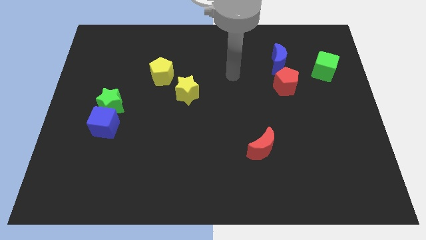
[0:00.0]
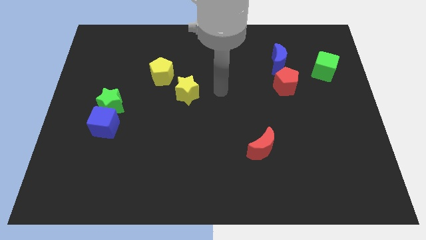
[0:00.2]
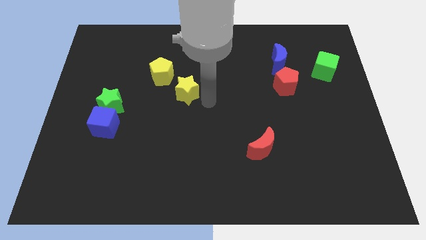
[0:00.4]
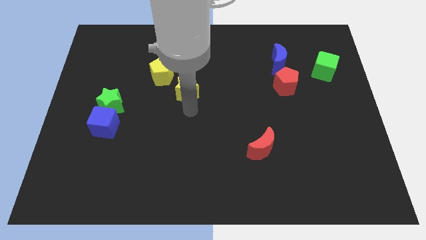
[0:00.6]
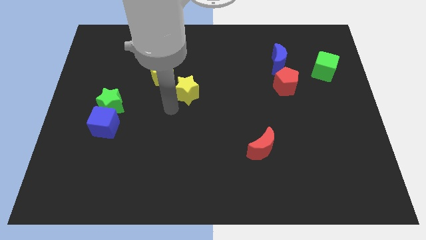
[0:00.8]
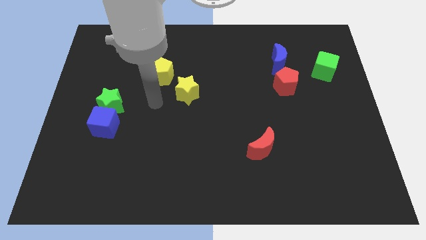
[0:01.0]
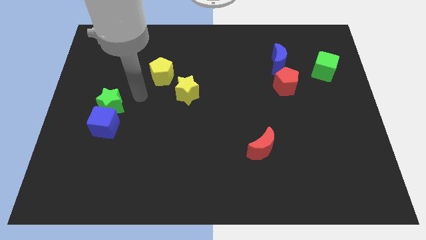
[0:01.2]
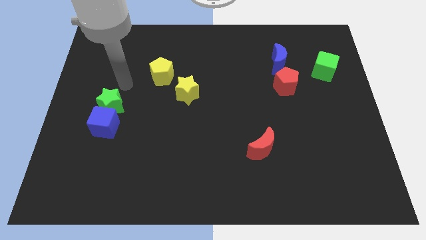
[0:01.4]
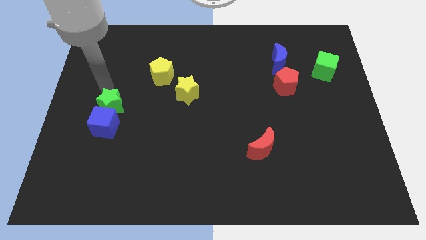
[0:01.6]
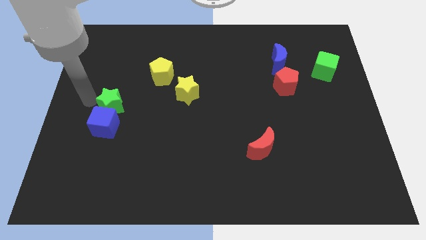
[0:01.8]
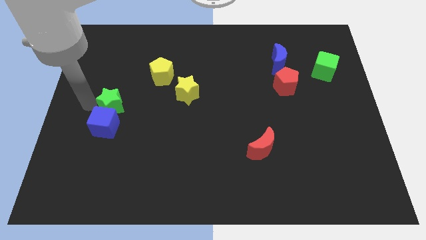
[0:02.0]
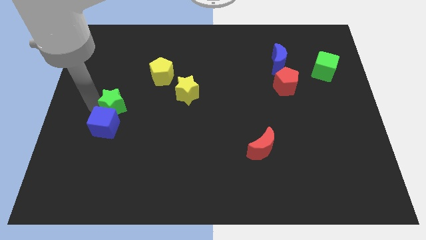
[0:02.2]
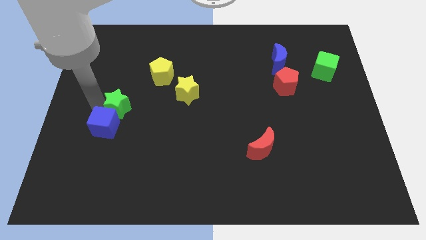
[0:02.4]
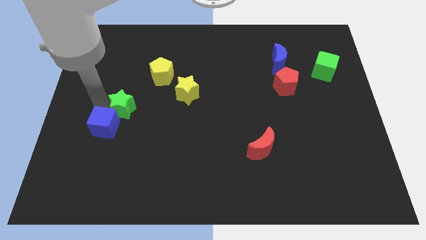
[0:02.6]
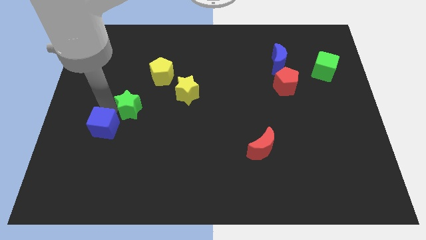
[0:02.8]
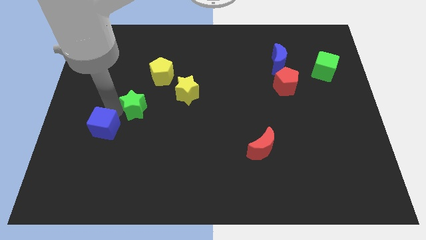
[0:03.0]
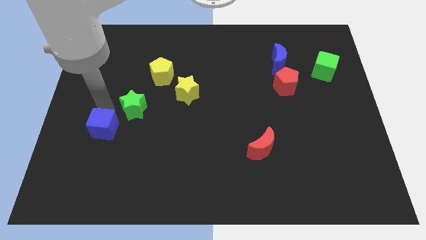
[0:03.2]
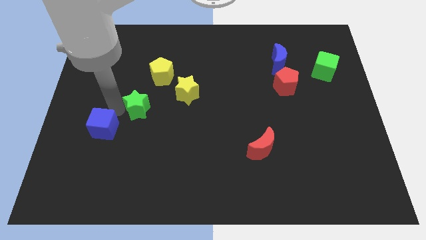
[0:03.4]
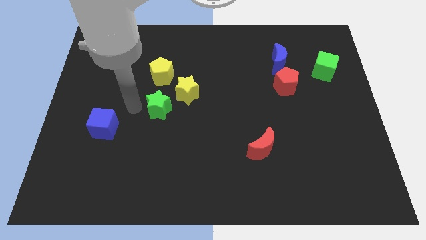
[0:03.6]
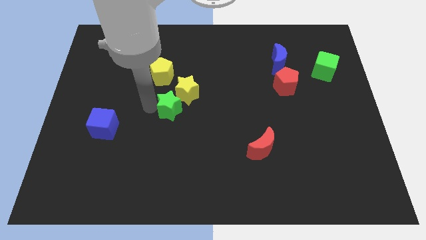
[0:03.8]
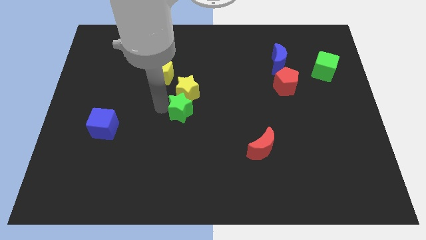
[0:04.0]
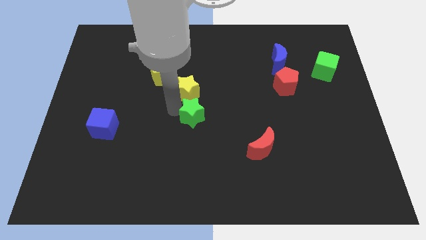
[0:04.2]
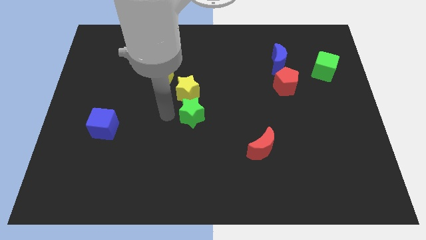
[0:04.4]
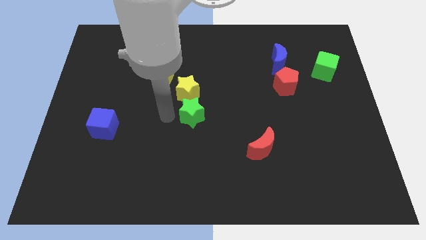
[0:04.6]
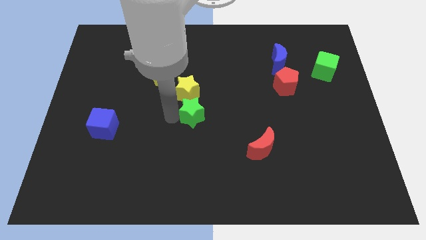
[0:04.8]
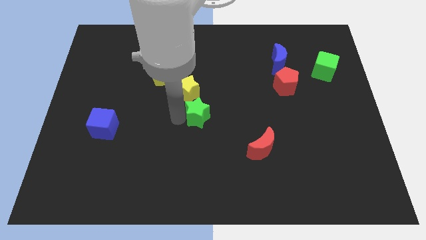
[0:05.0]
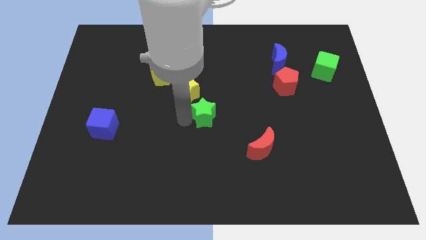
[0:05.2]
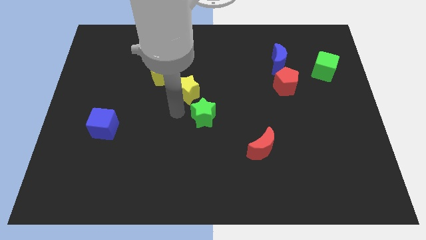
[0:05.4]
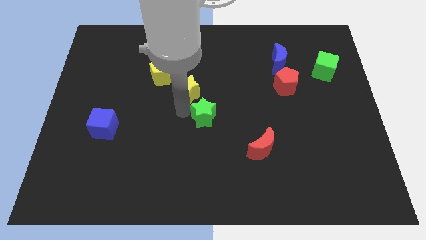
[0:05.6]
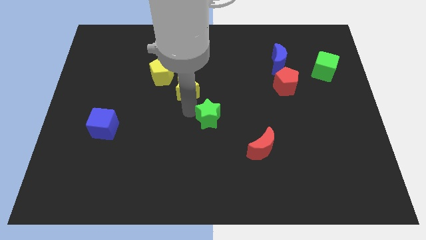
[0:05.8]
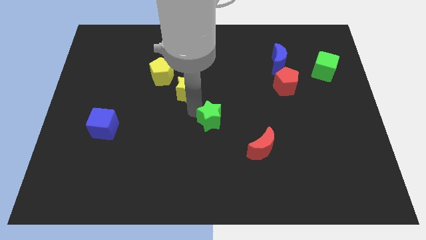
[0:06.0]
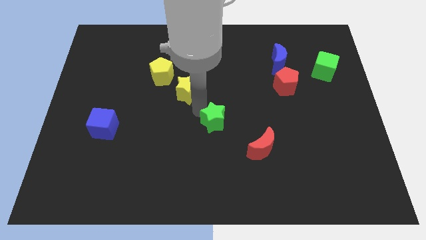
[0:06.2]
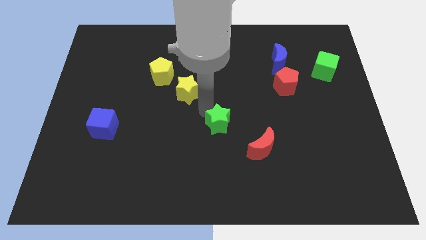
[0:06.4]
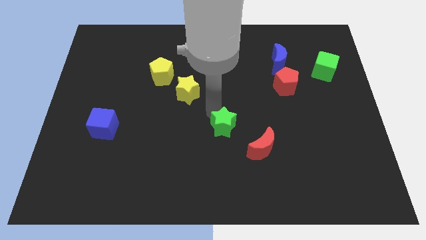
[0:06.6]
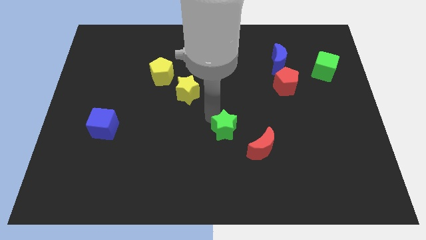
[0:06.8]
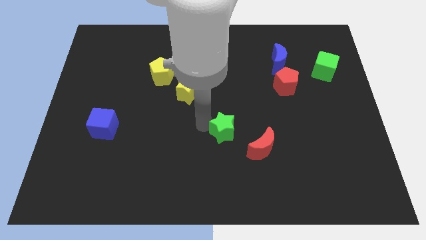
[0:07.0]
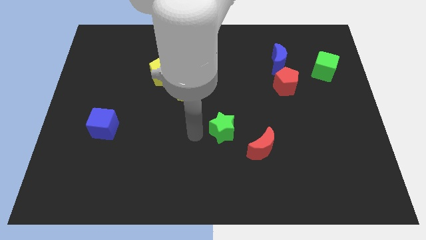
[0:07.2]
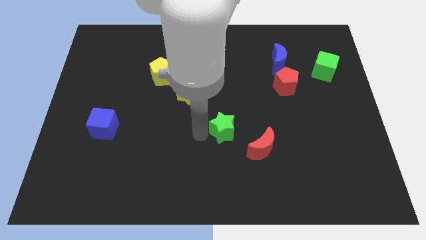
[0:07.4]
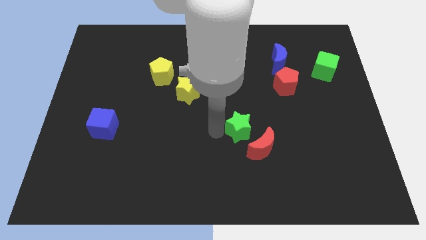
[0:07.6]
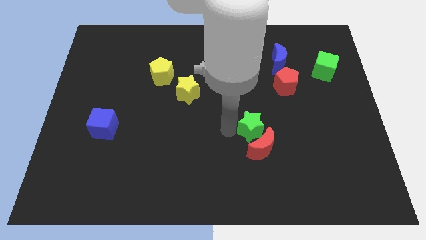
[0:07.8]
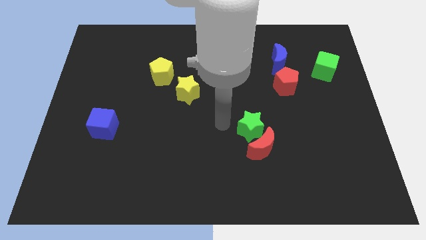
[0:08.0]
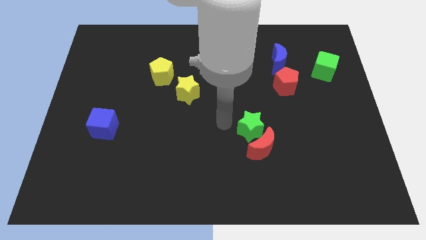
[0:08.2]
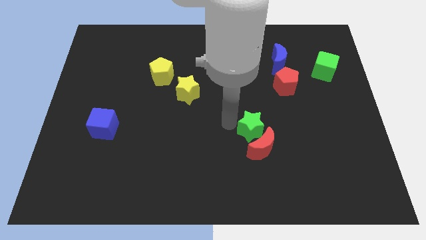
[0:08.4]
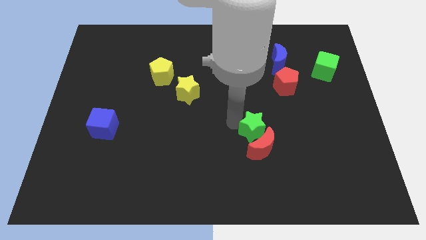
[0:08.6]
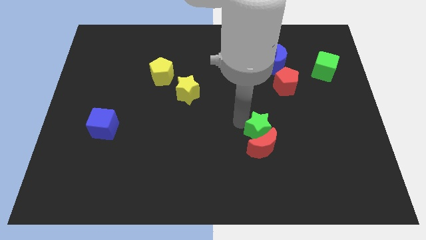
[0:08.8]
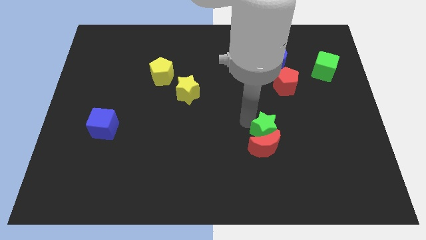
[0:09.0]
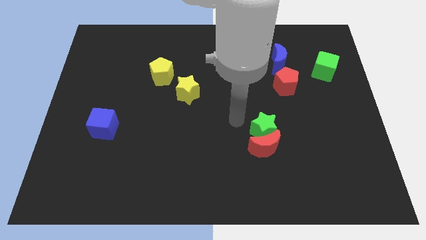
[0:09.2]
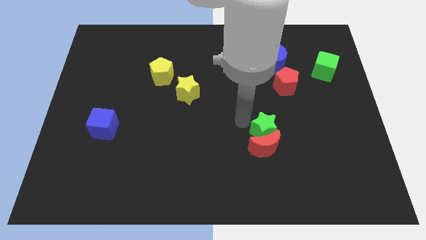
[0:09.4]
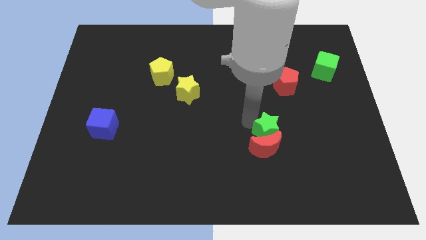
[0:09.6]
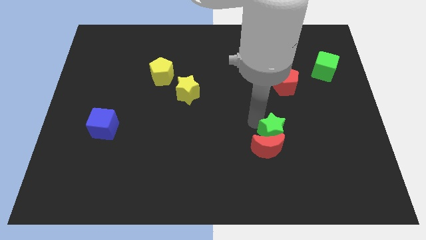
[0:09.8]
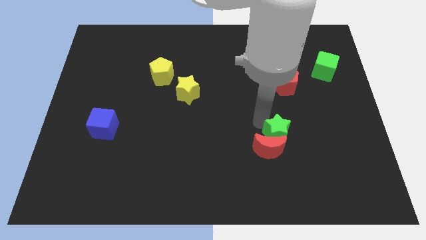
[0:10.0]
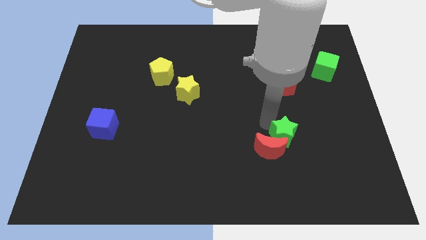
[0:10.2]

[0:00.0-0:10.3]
move the green star right of the red moon

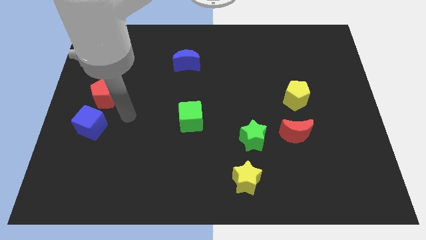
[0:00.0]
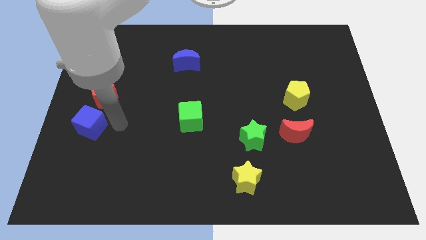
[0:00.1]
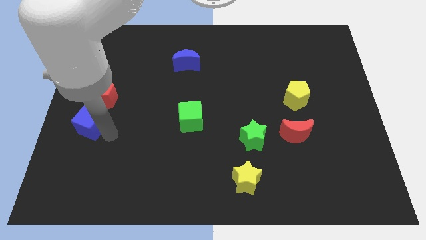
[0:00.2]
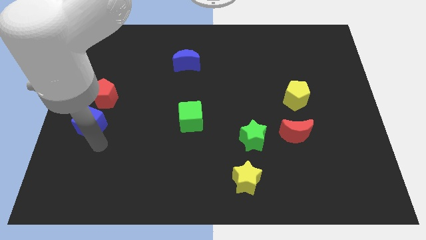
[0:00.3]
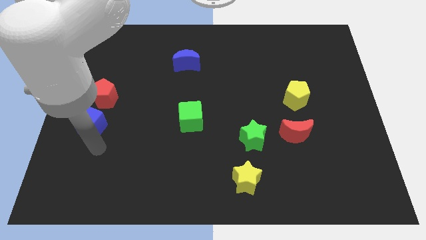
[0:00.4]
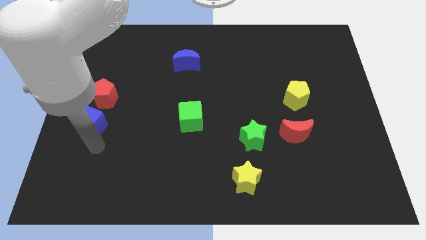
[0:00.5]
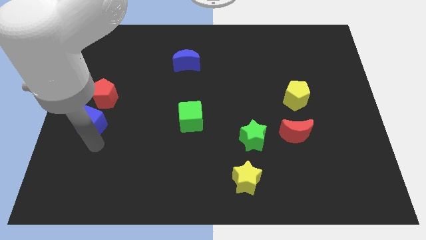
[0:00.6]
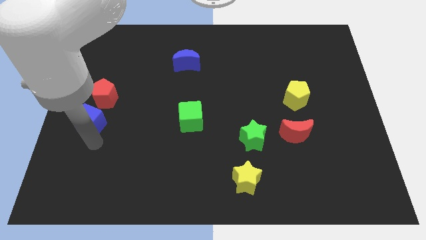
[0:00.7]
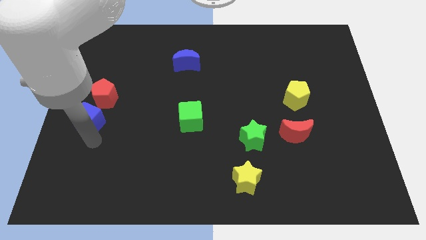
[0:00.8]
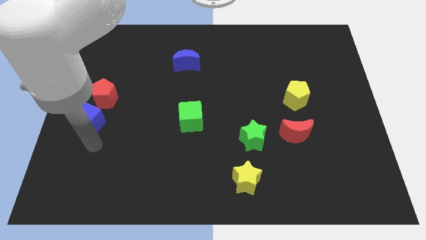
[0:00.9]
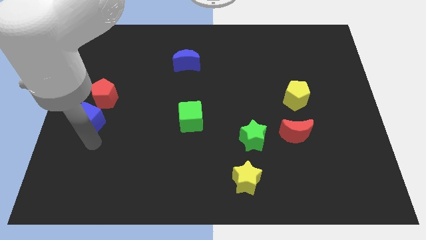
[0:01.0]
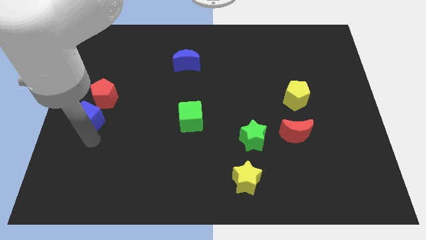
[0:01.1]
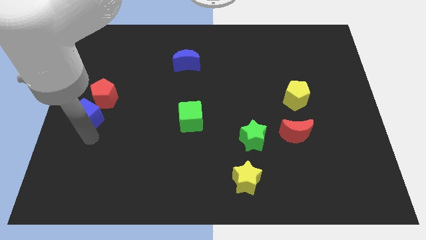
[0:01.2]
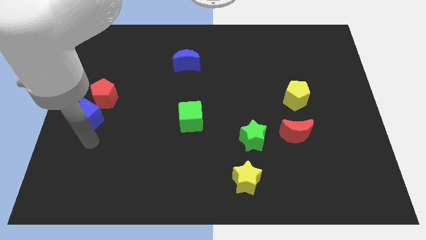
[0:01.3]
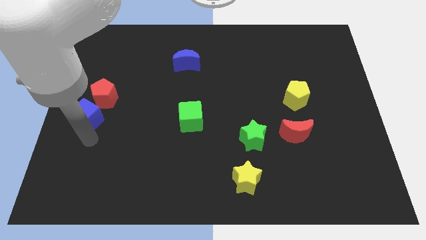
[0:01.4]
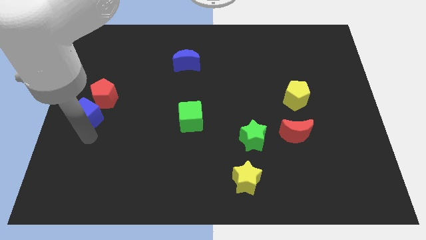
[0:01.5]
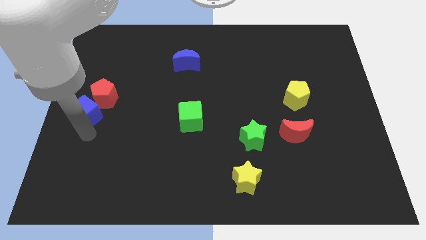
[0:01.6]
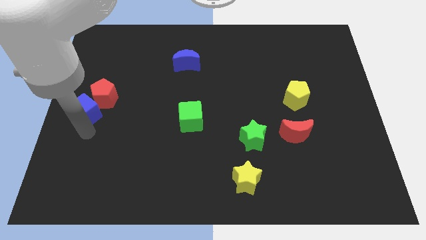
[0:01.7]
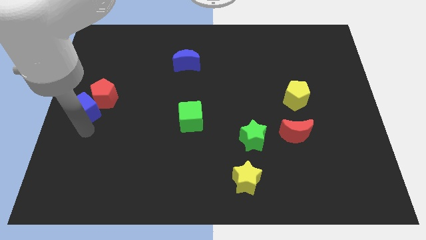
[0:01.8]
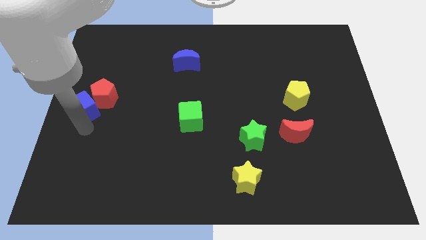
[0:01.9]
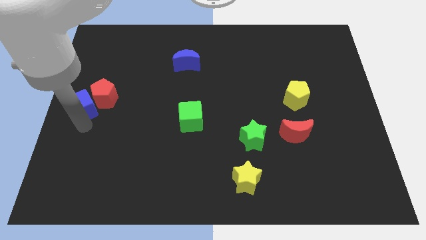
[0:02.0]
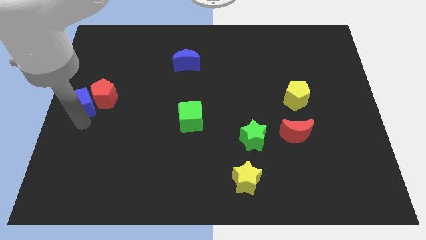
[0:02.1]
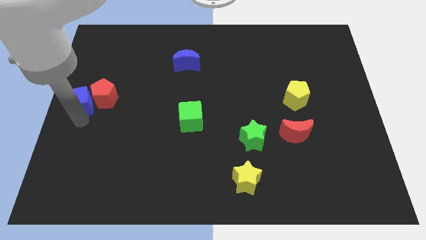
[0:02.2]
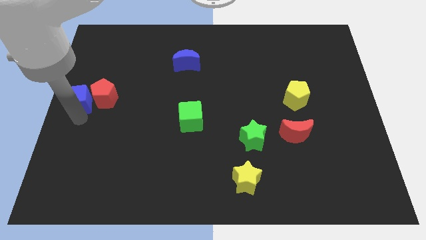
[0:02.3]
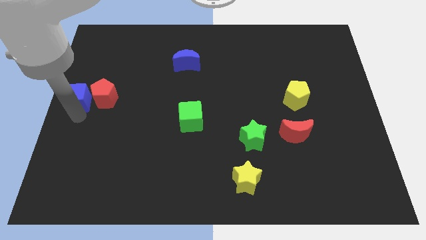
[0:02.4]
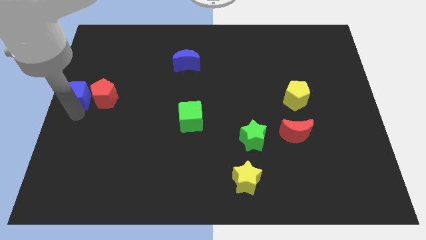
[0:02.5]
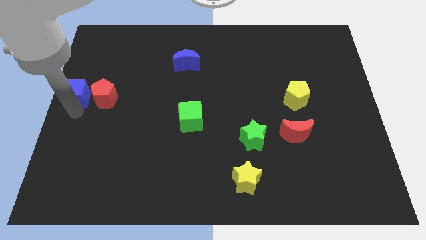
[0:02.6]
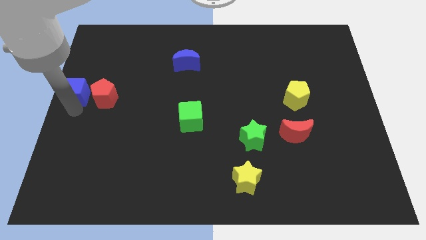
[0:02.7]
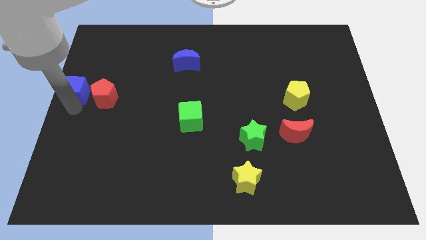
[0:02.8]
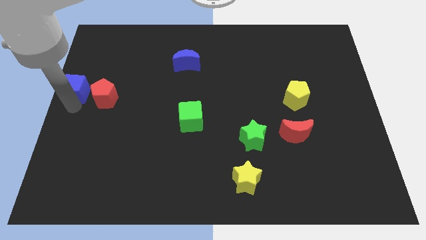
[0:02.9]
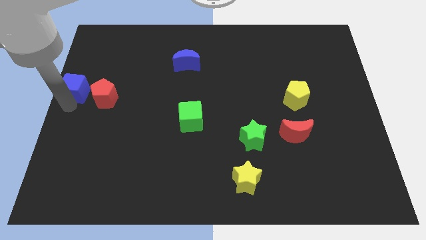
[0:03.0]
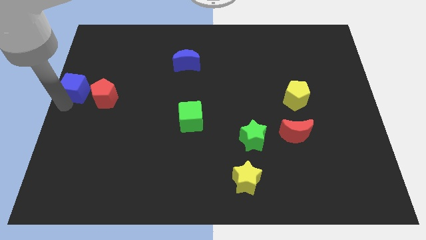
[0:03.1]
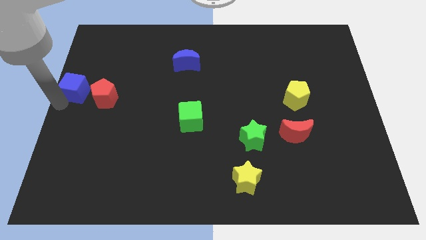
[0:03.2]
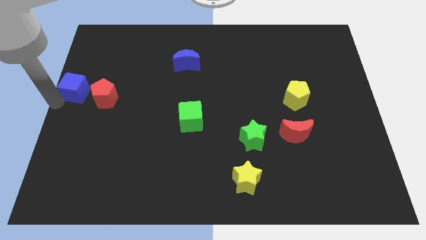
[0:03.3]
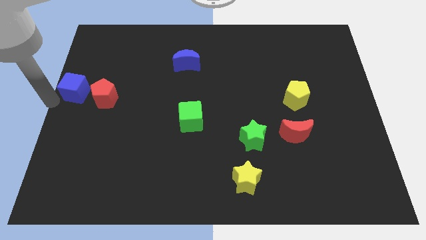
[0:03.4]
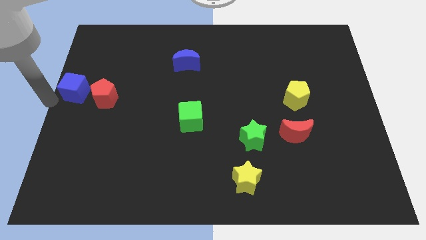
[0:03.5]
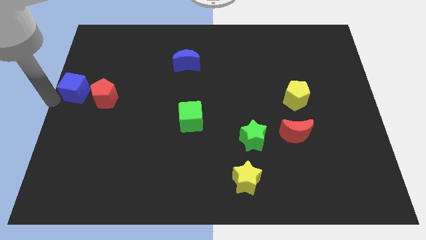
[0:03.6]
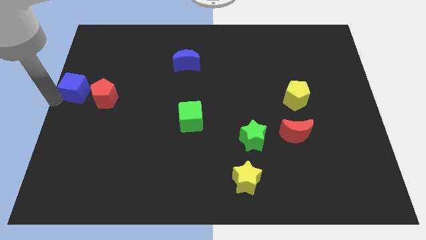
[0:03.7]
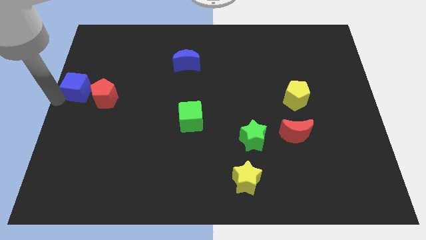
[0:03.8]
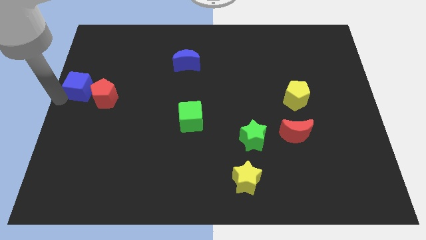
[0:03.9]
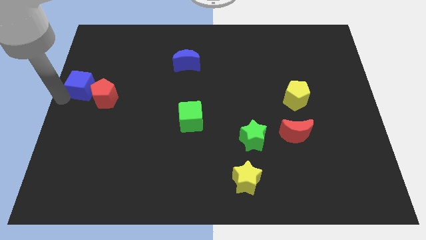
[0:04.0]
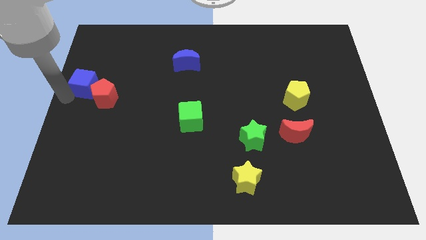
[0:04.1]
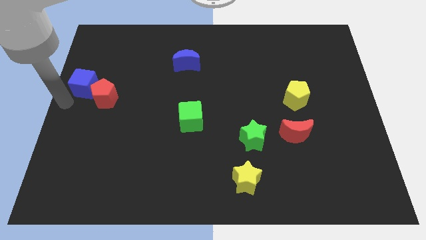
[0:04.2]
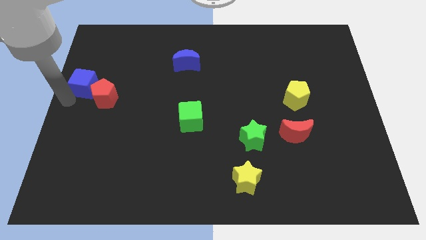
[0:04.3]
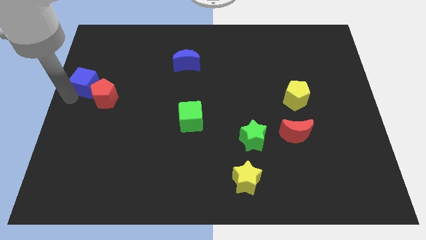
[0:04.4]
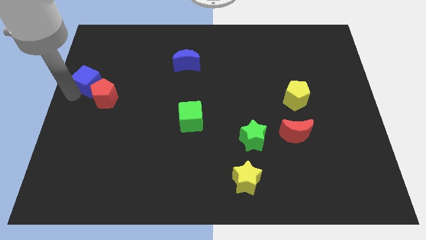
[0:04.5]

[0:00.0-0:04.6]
push the blue cube to the top of the red pentagon
